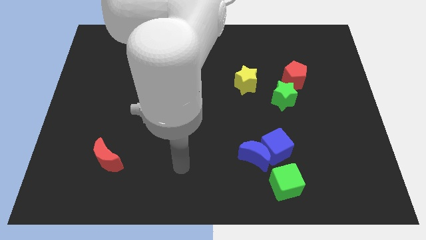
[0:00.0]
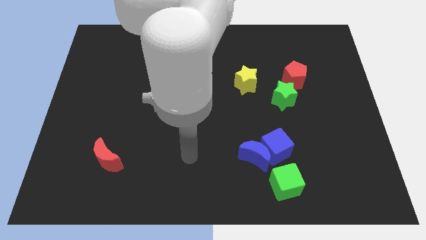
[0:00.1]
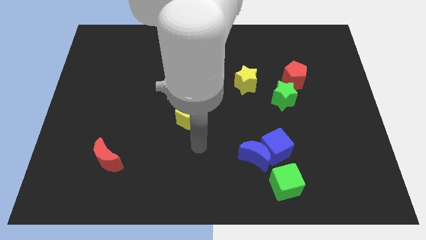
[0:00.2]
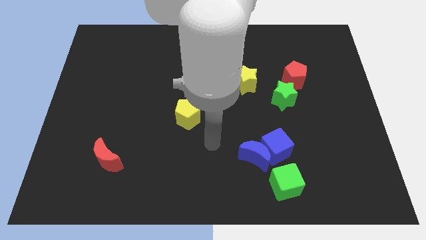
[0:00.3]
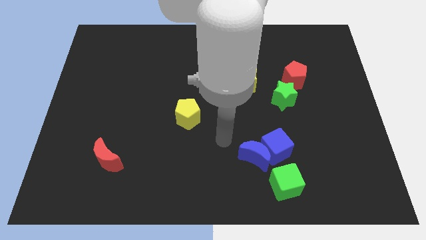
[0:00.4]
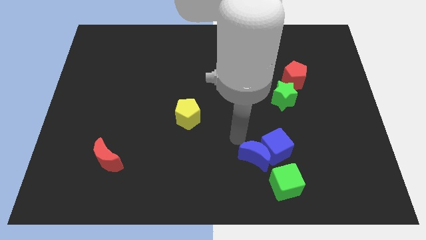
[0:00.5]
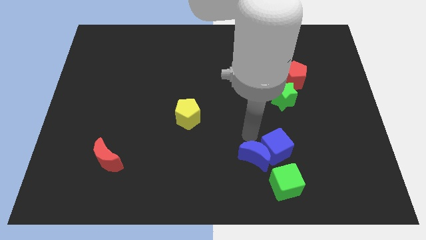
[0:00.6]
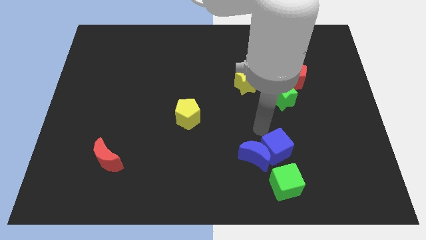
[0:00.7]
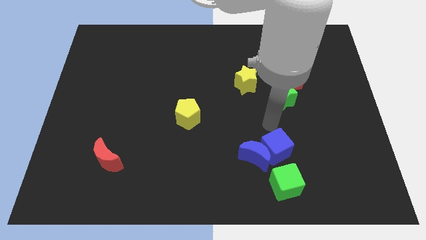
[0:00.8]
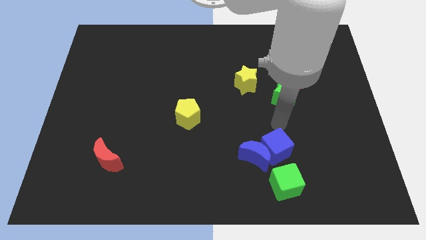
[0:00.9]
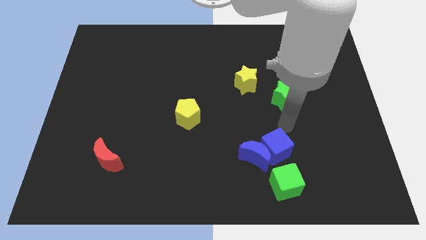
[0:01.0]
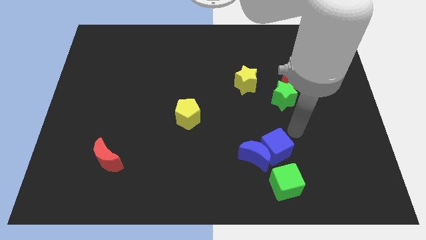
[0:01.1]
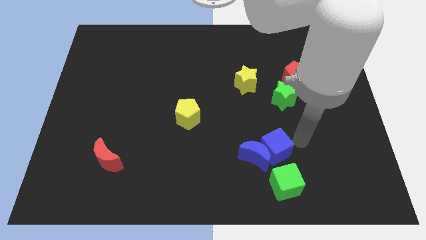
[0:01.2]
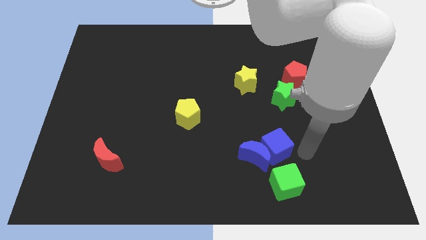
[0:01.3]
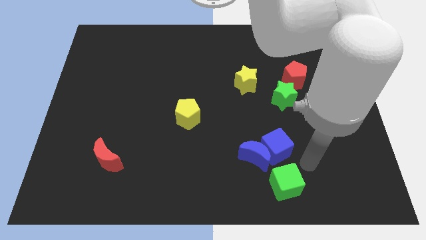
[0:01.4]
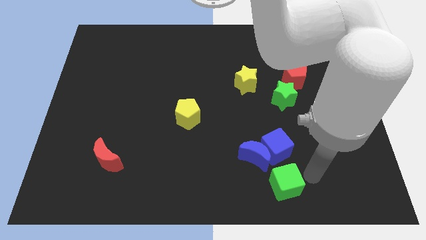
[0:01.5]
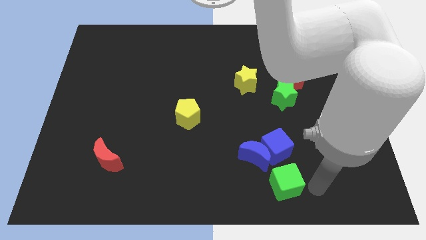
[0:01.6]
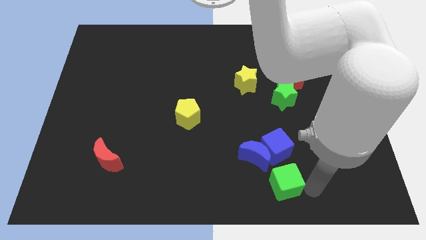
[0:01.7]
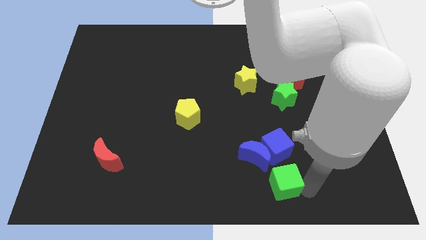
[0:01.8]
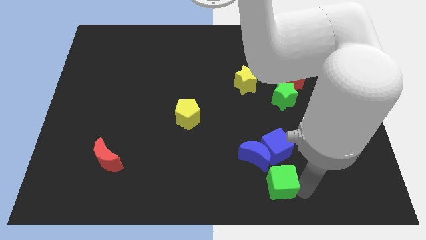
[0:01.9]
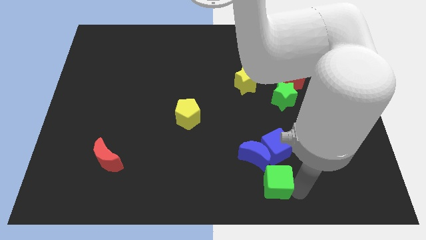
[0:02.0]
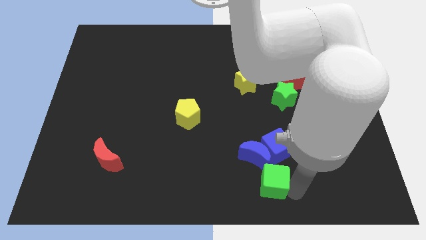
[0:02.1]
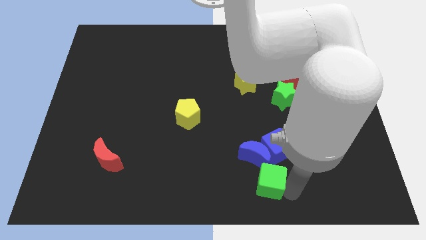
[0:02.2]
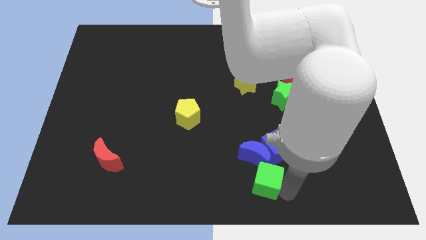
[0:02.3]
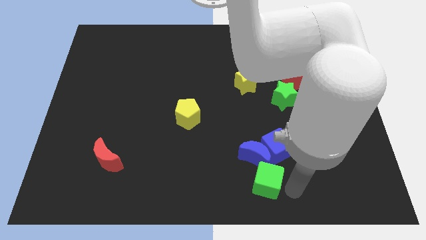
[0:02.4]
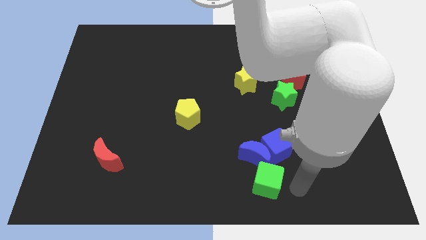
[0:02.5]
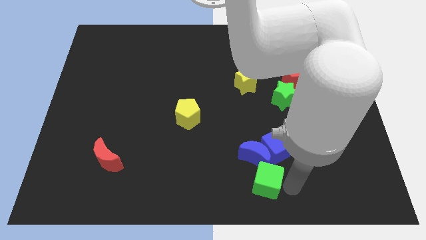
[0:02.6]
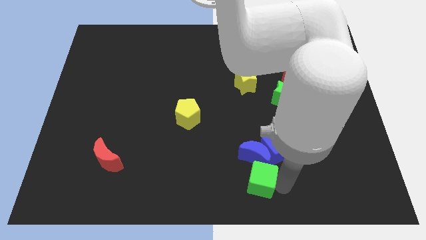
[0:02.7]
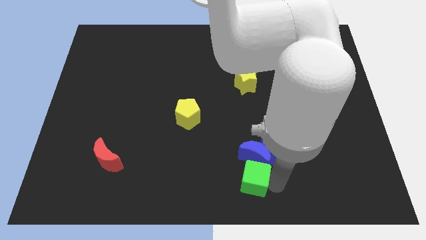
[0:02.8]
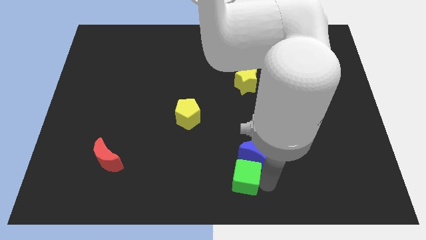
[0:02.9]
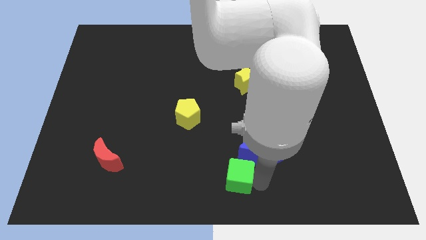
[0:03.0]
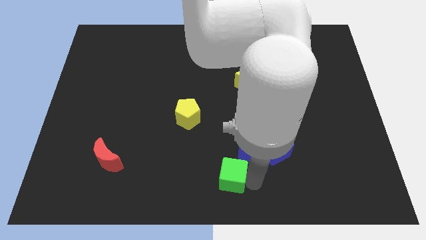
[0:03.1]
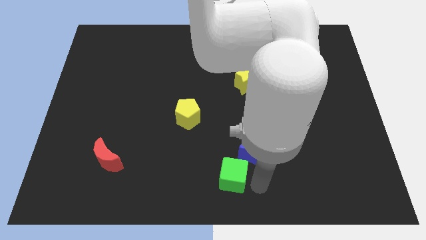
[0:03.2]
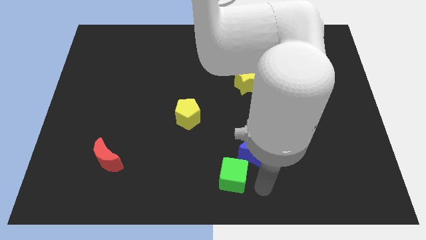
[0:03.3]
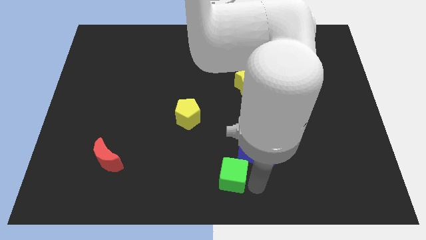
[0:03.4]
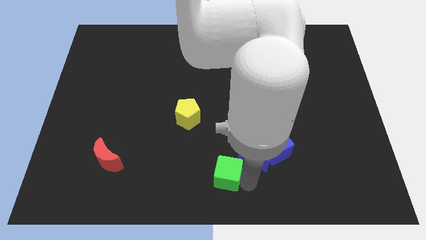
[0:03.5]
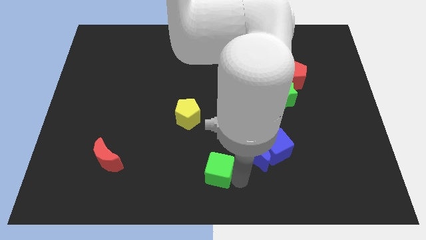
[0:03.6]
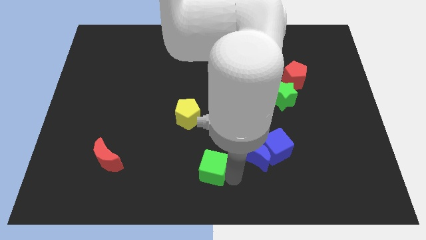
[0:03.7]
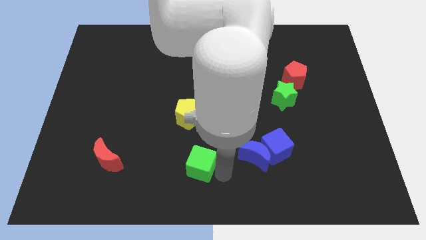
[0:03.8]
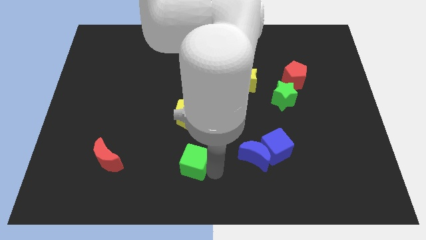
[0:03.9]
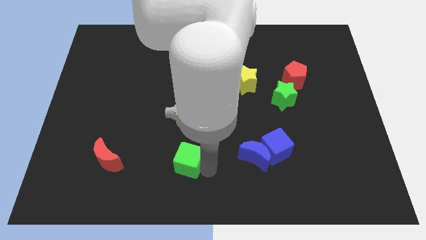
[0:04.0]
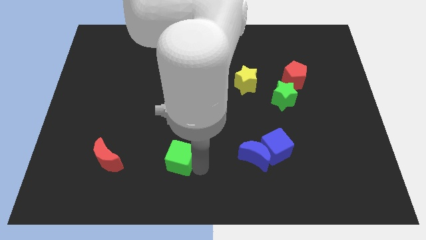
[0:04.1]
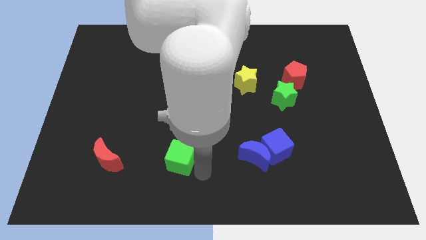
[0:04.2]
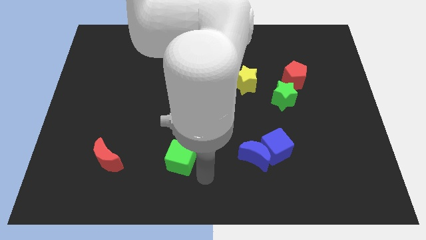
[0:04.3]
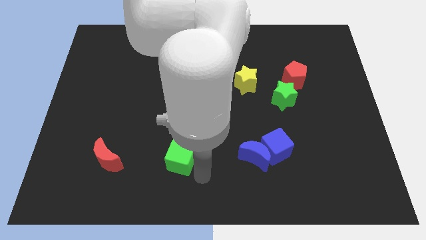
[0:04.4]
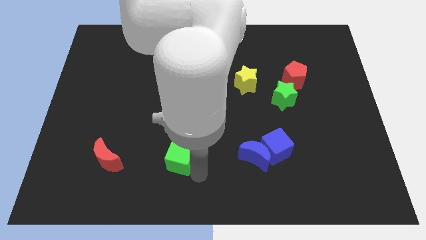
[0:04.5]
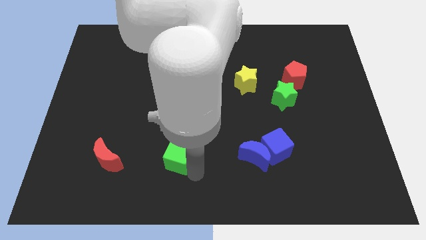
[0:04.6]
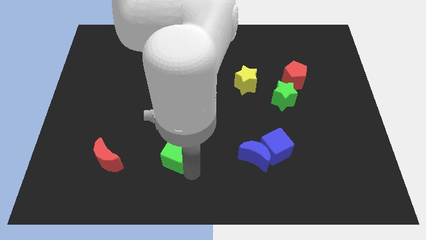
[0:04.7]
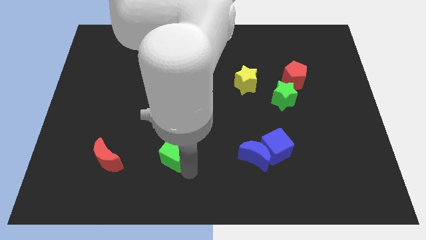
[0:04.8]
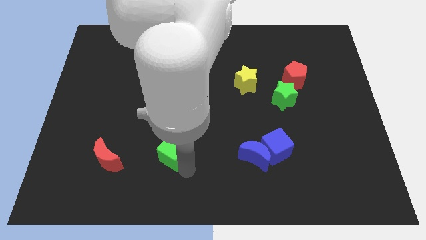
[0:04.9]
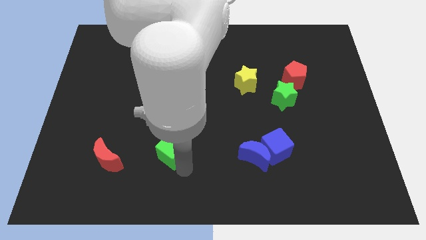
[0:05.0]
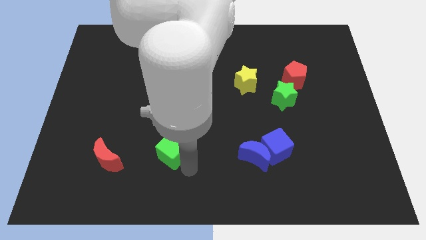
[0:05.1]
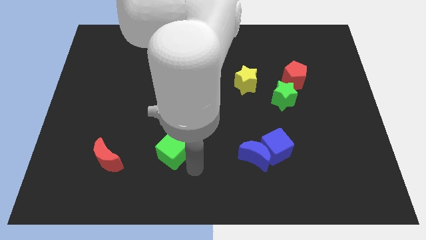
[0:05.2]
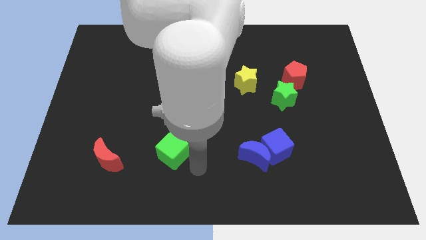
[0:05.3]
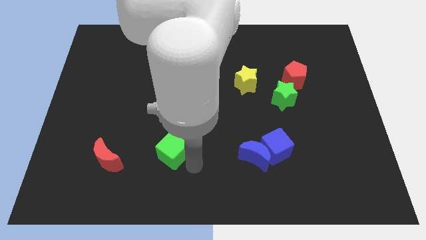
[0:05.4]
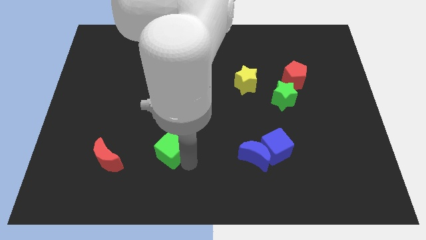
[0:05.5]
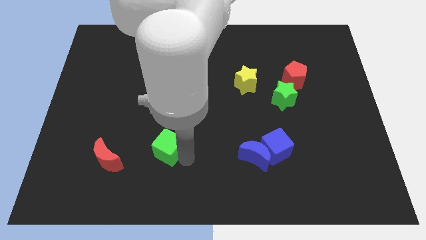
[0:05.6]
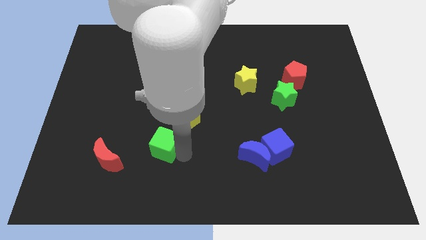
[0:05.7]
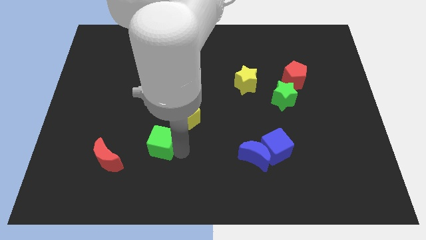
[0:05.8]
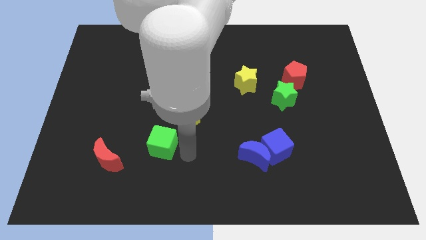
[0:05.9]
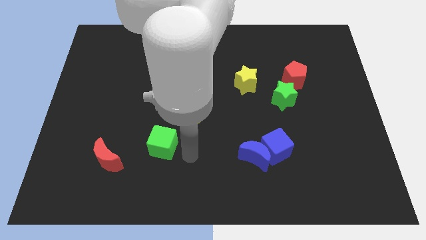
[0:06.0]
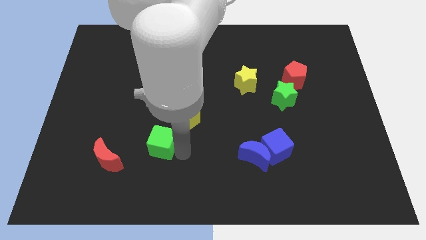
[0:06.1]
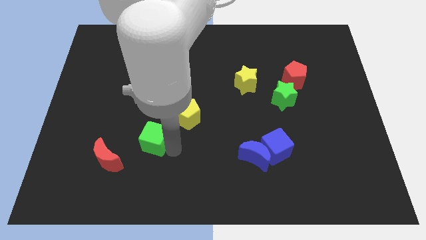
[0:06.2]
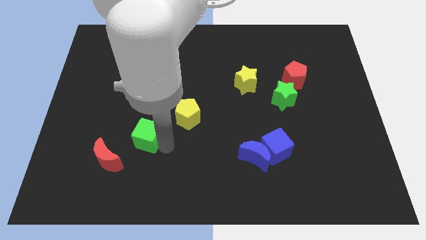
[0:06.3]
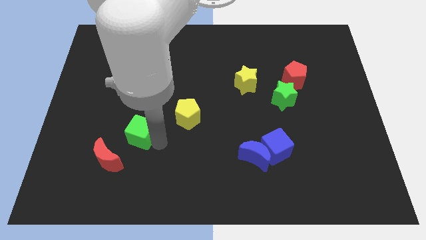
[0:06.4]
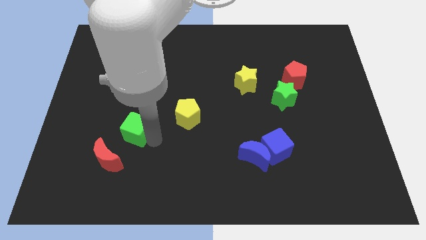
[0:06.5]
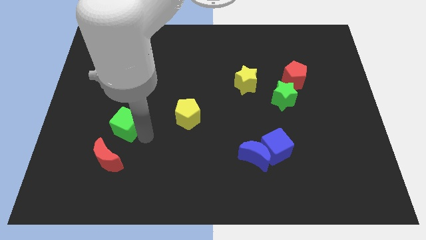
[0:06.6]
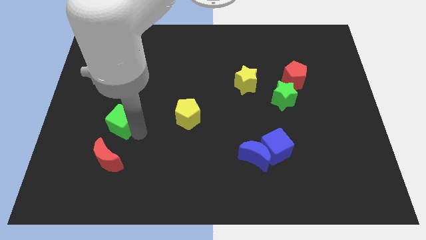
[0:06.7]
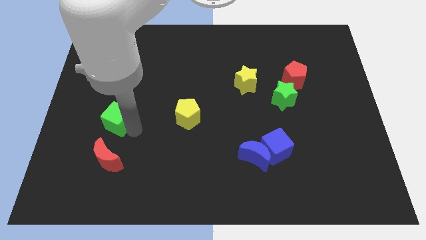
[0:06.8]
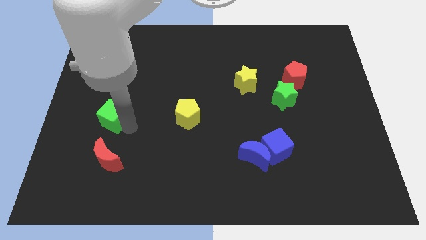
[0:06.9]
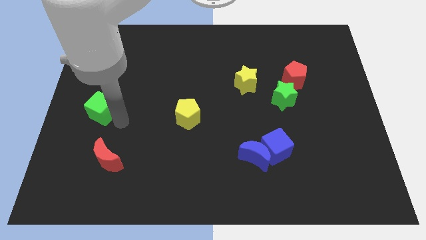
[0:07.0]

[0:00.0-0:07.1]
slide the green cube to the left side of the board
